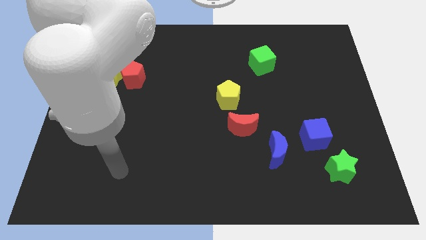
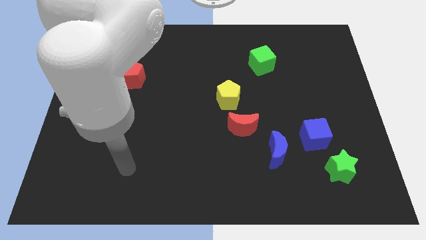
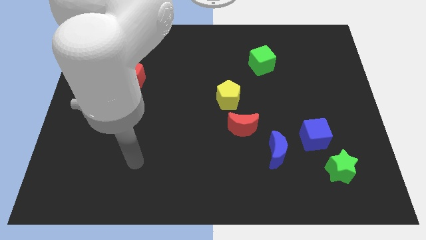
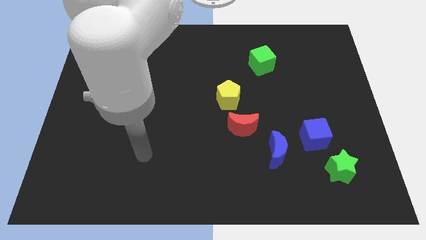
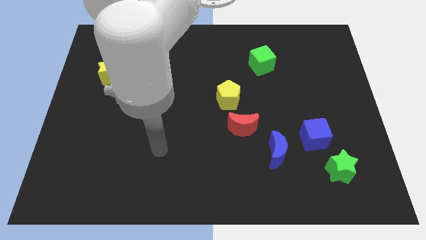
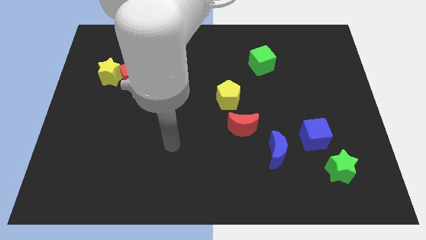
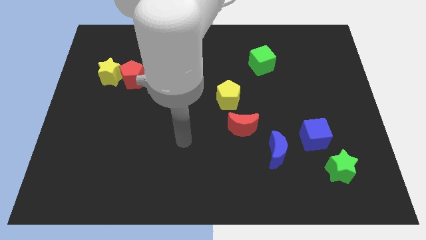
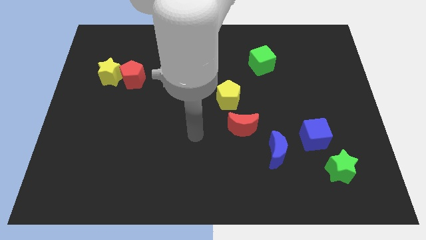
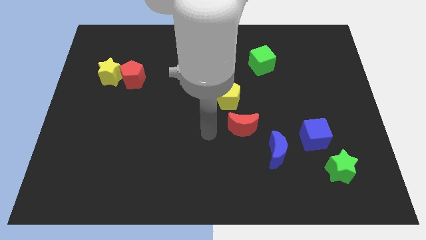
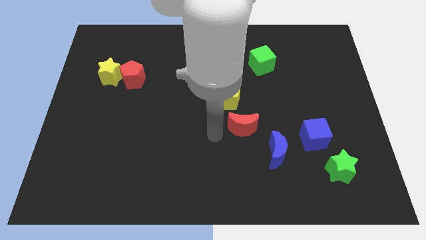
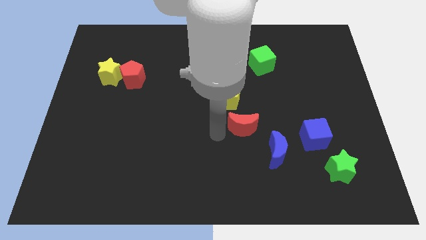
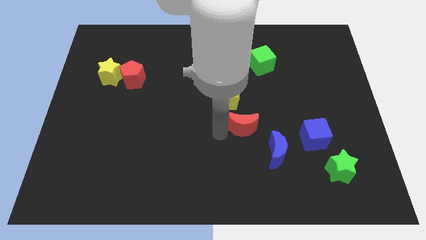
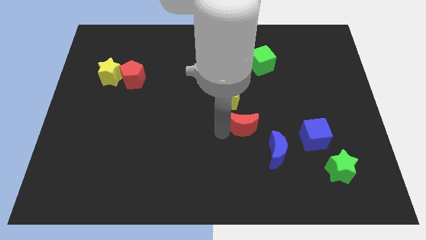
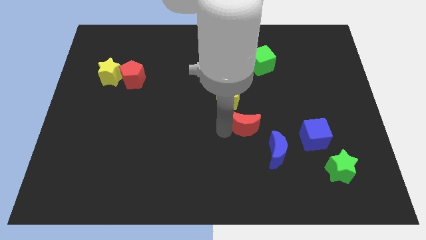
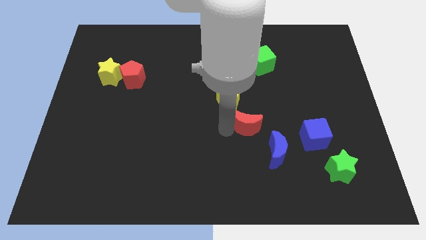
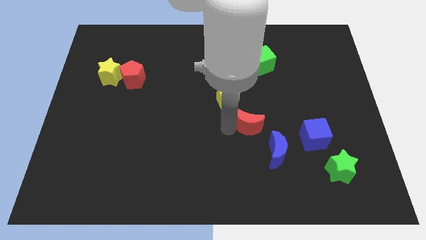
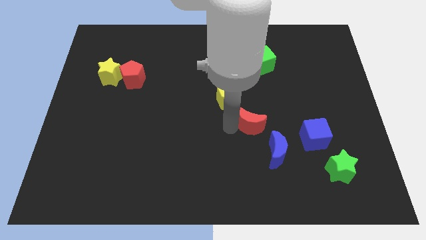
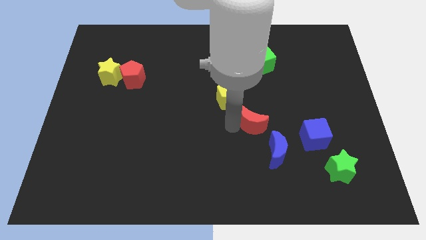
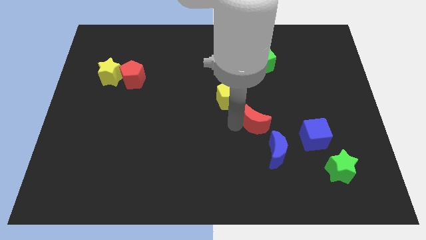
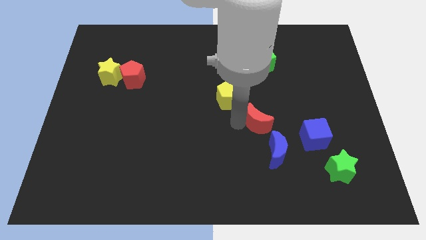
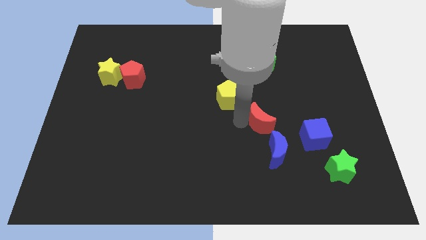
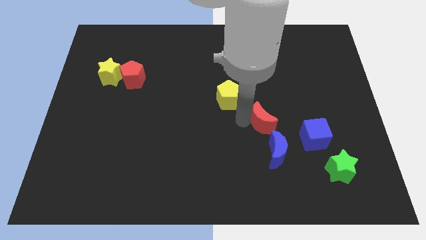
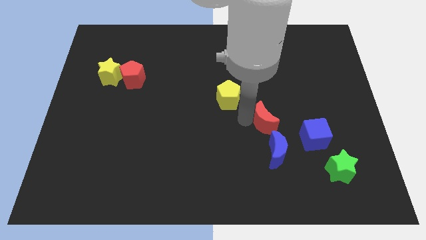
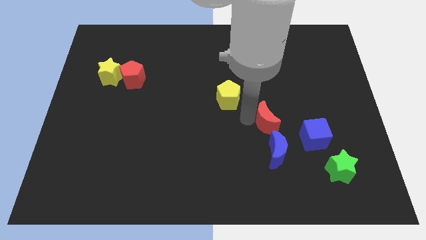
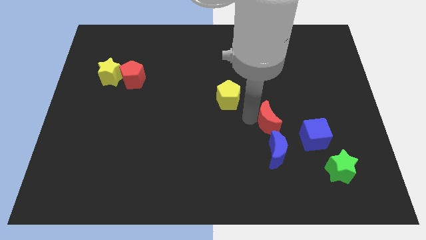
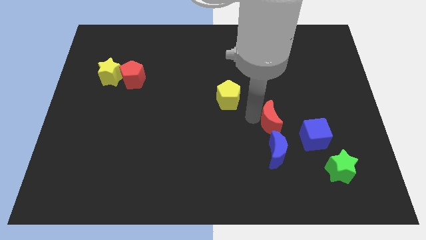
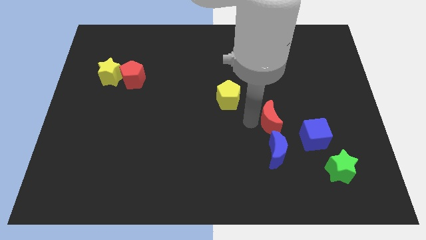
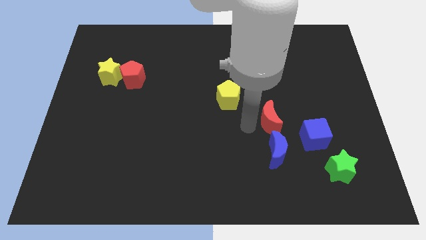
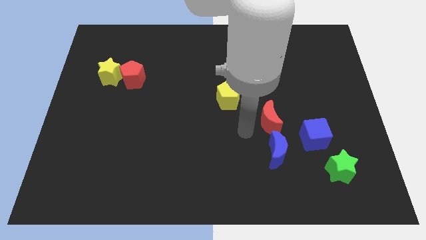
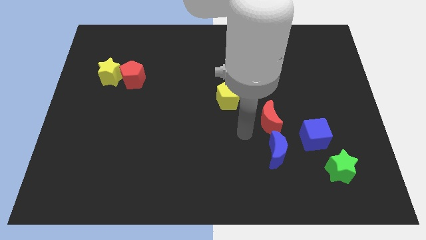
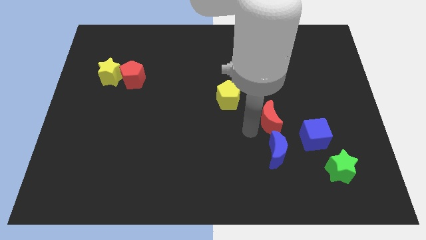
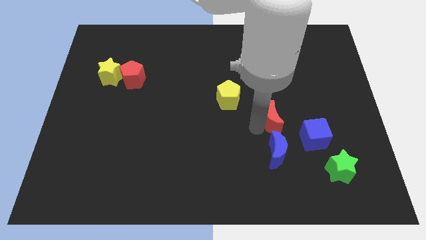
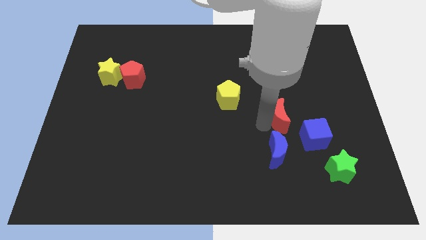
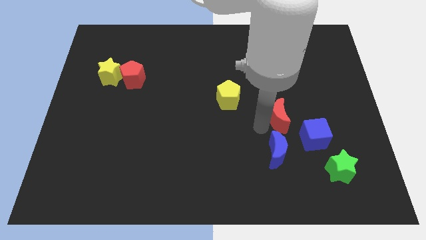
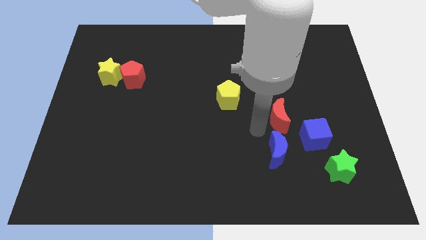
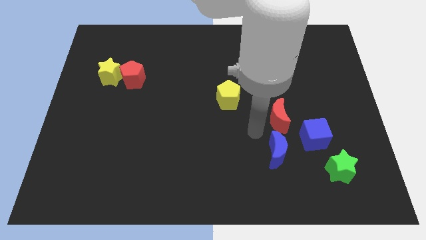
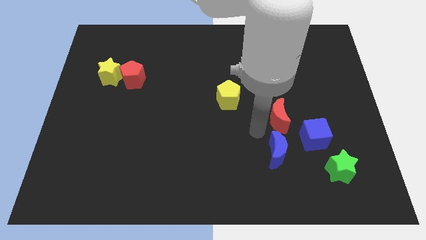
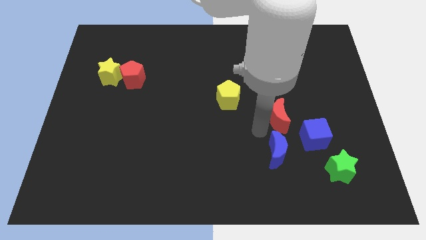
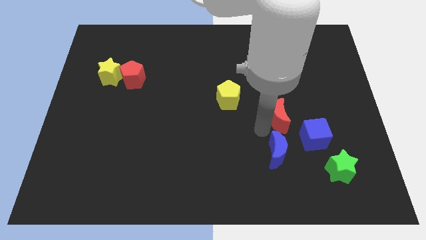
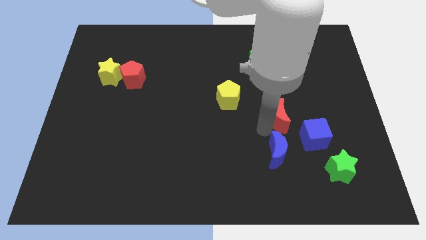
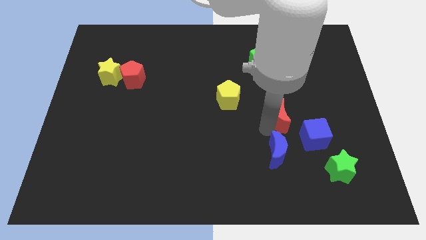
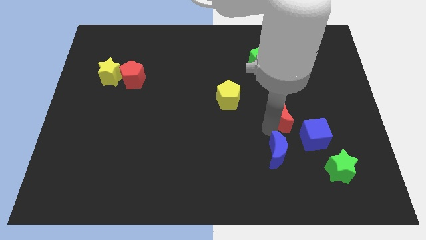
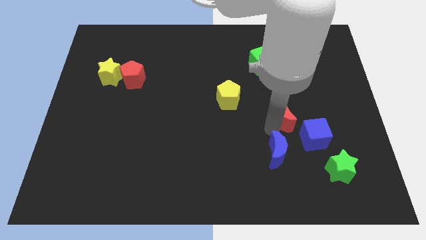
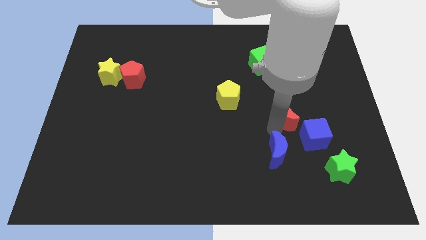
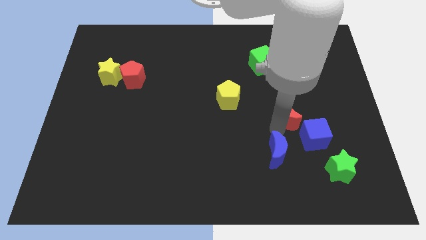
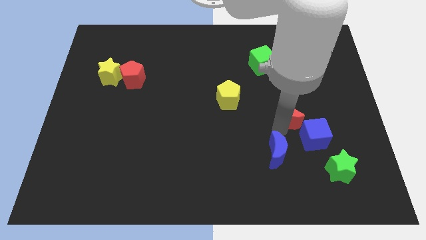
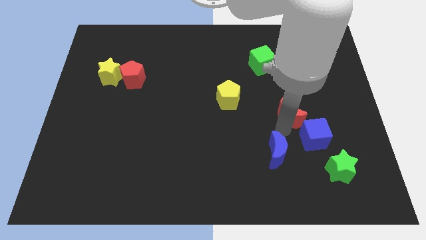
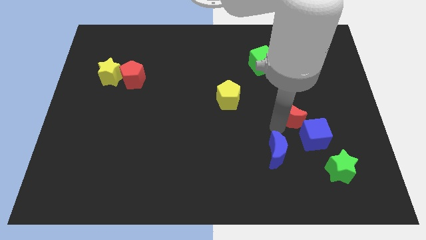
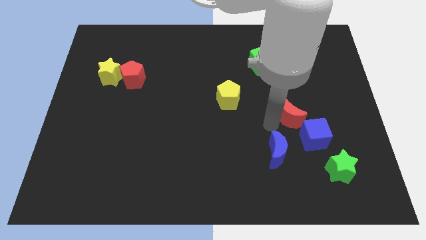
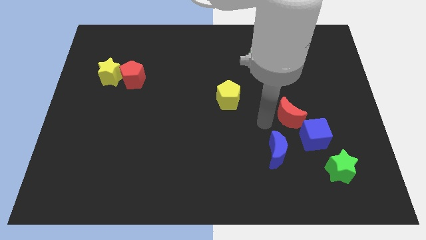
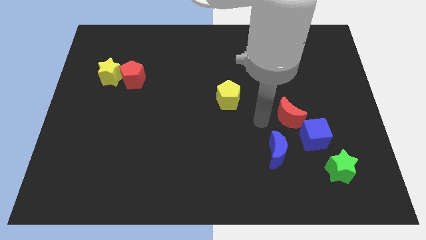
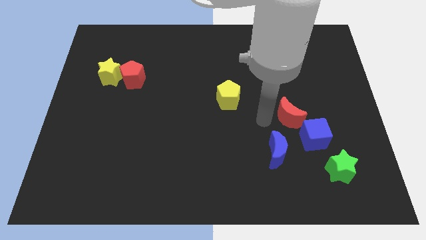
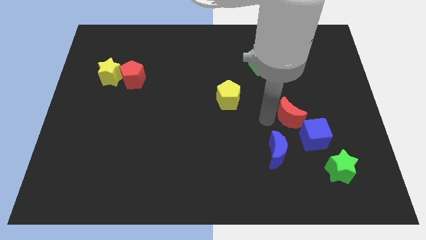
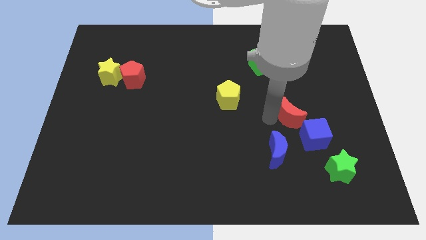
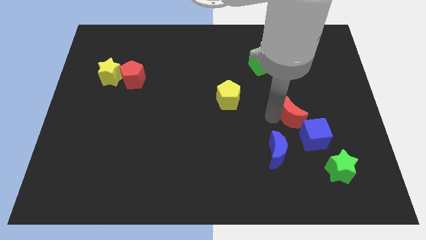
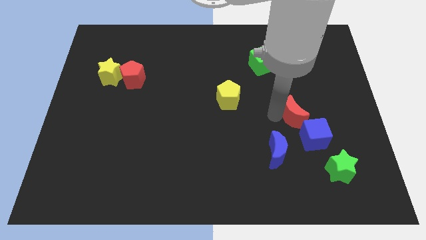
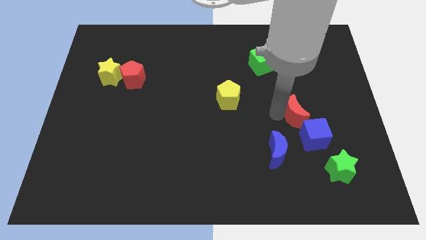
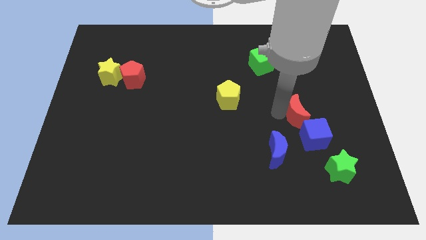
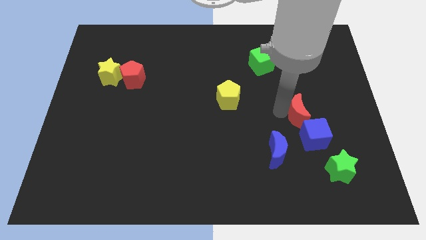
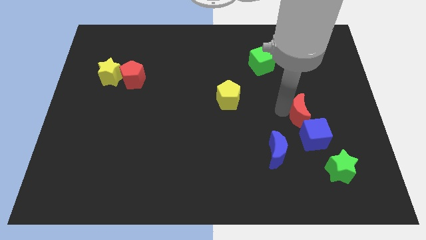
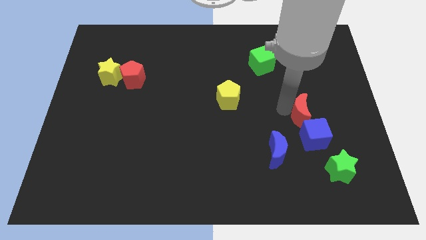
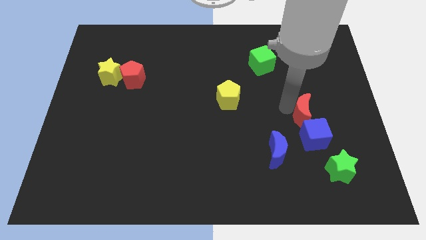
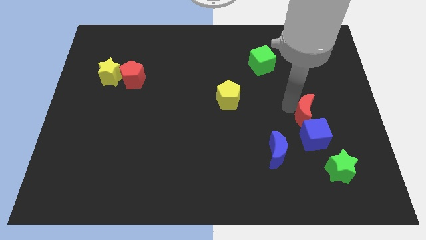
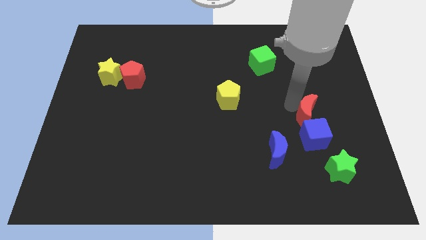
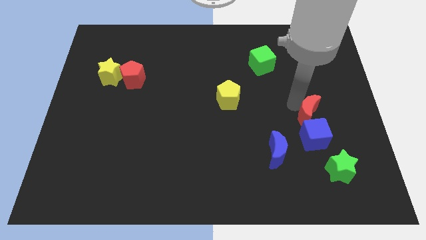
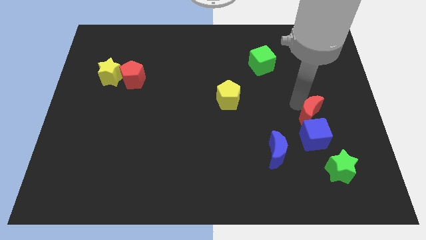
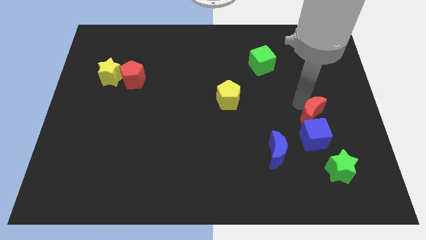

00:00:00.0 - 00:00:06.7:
push the red moon above the green star
